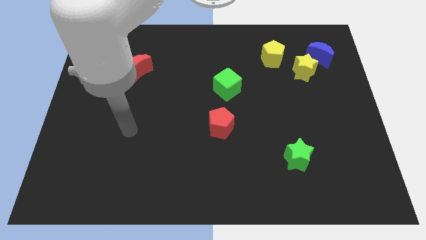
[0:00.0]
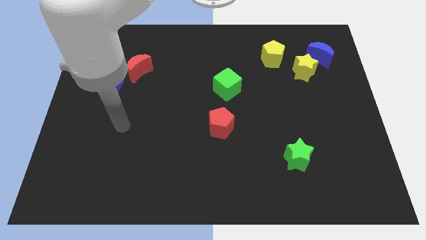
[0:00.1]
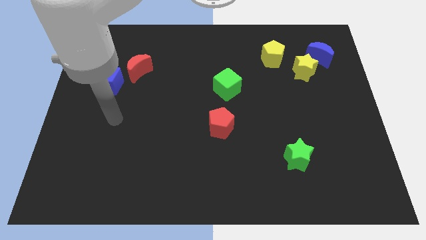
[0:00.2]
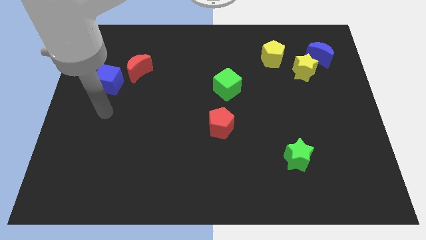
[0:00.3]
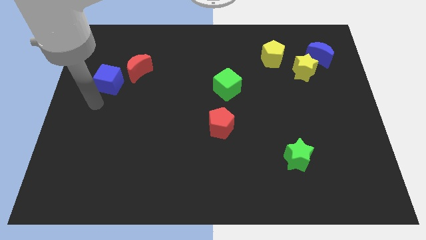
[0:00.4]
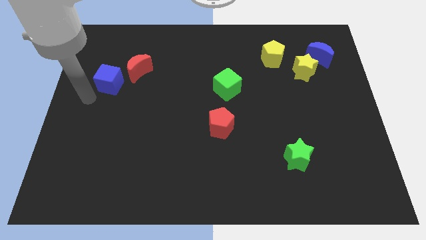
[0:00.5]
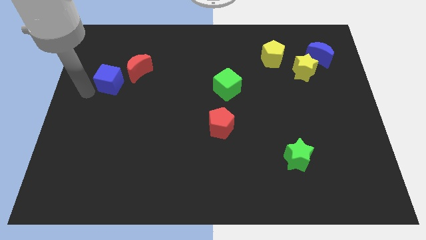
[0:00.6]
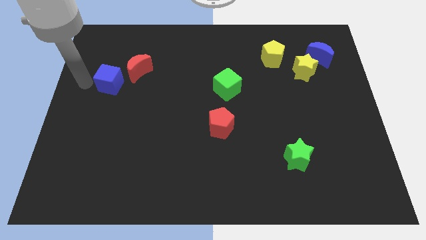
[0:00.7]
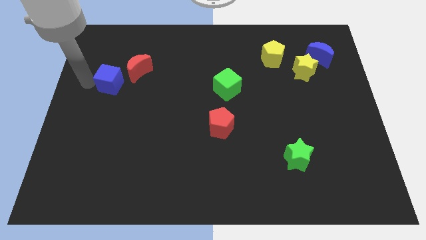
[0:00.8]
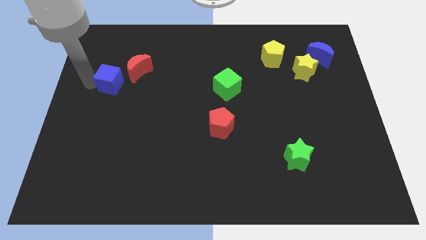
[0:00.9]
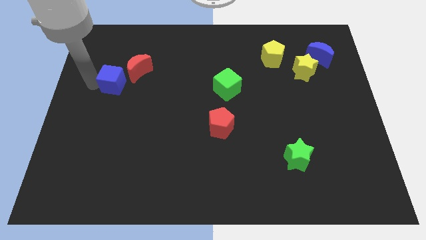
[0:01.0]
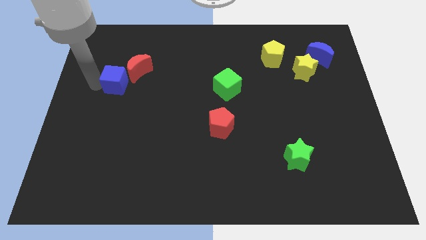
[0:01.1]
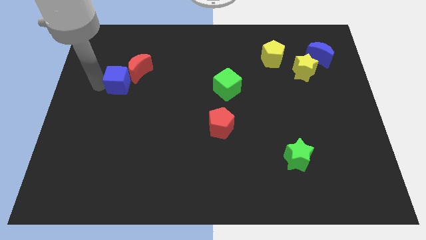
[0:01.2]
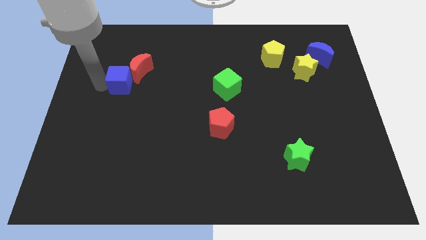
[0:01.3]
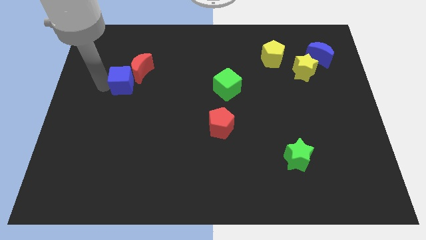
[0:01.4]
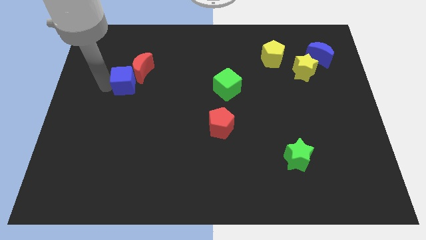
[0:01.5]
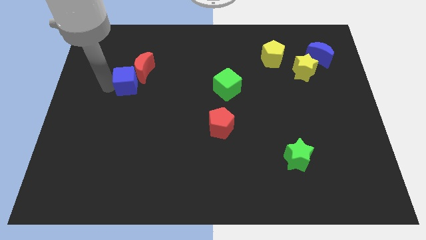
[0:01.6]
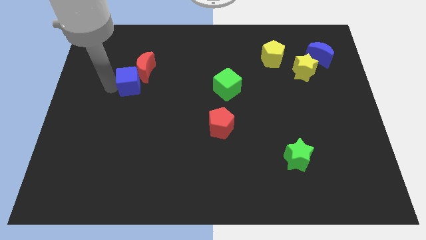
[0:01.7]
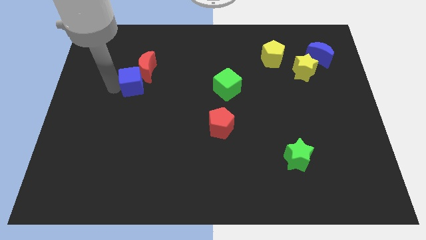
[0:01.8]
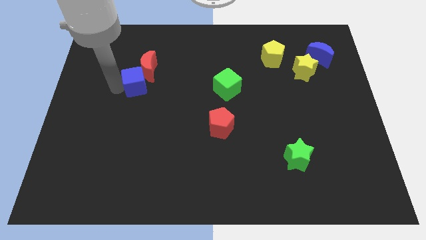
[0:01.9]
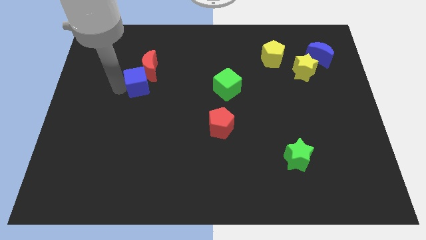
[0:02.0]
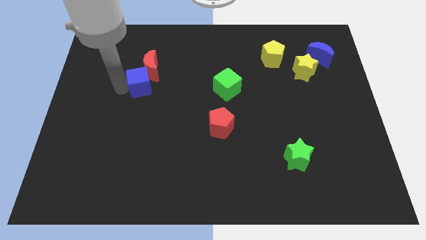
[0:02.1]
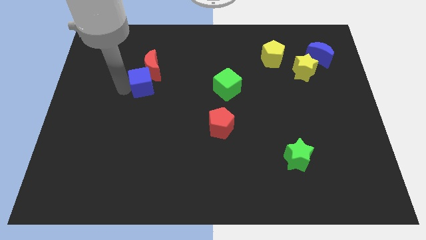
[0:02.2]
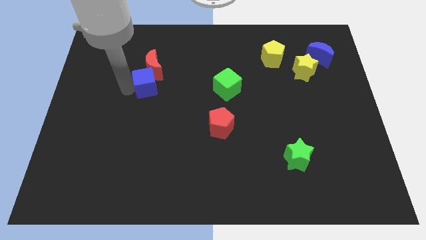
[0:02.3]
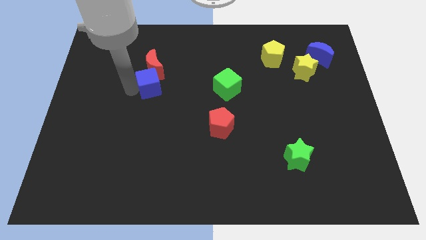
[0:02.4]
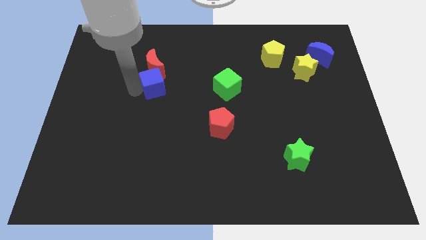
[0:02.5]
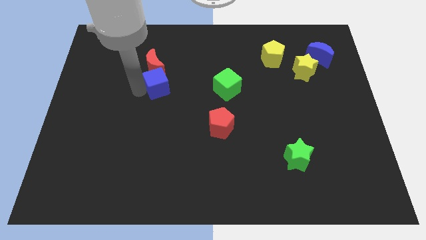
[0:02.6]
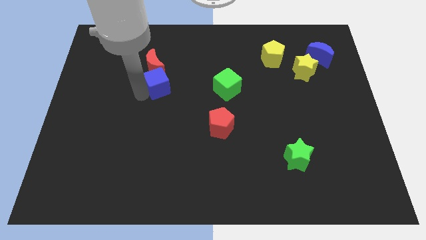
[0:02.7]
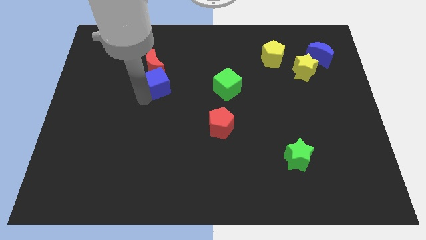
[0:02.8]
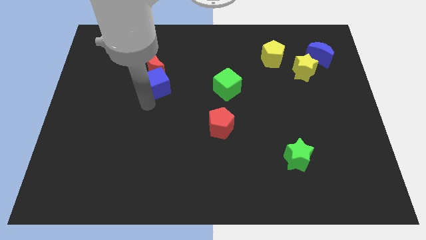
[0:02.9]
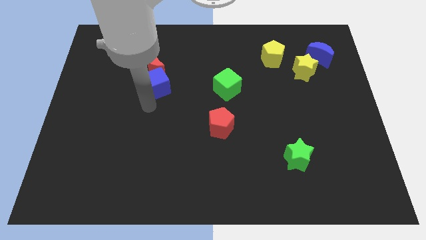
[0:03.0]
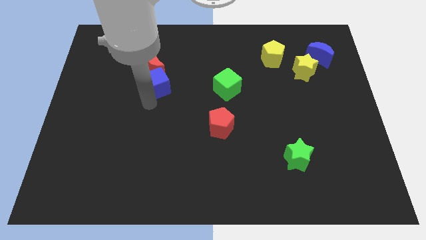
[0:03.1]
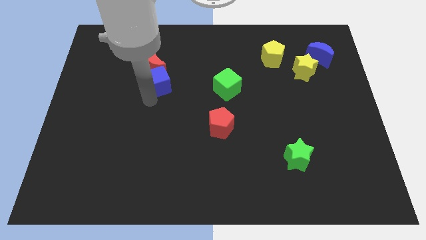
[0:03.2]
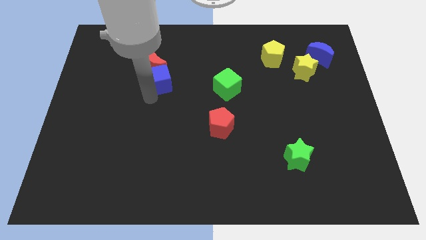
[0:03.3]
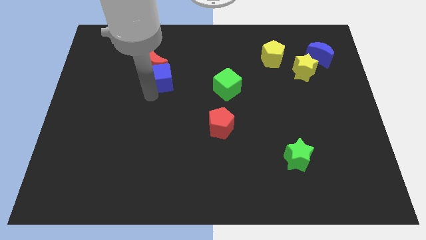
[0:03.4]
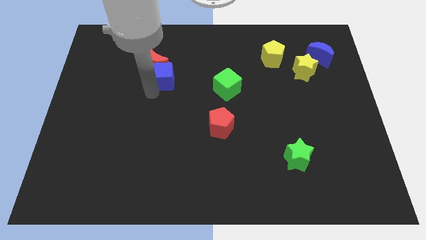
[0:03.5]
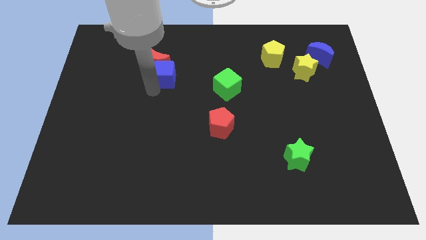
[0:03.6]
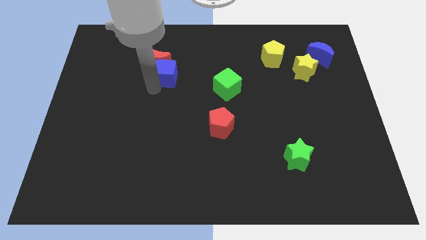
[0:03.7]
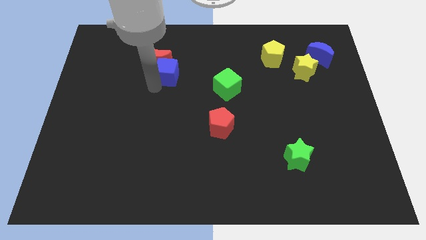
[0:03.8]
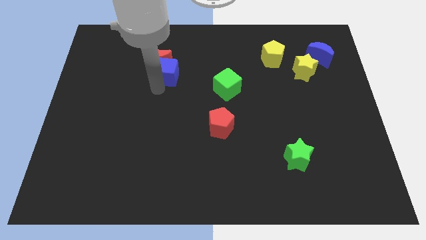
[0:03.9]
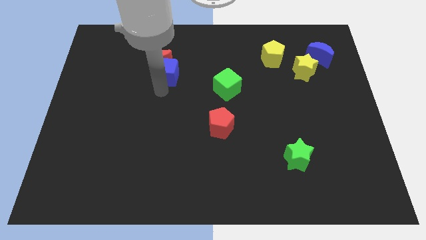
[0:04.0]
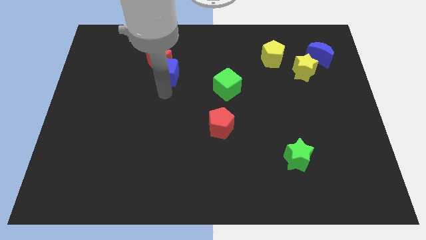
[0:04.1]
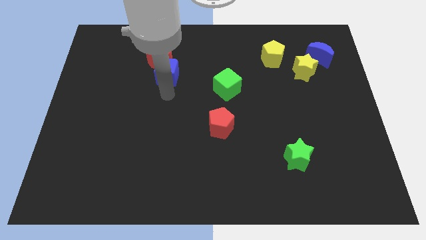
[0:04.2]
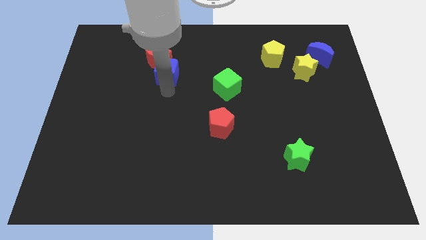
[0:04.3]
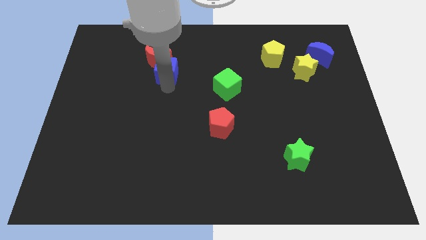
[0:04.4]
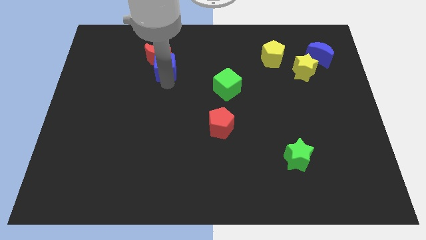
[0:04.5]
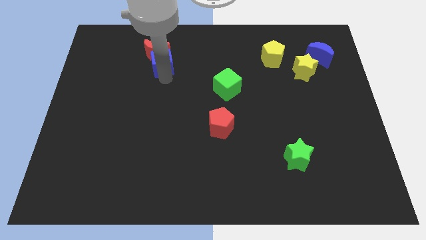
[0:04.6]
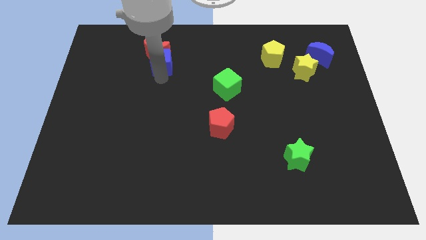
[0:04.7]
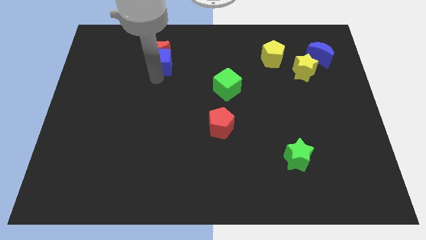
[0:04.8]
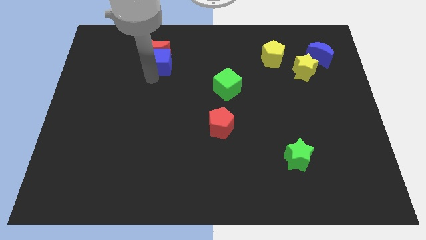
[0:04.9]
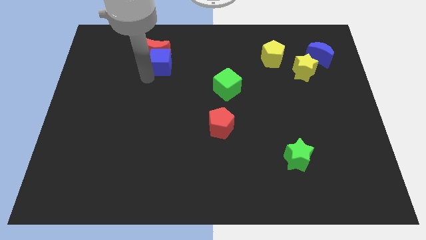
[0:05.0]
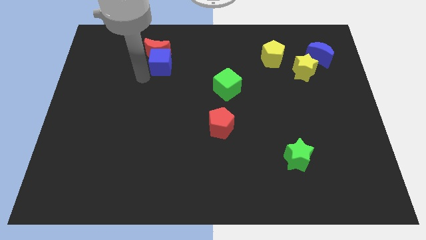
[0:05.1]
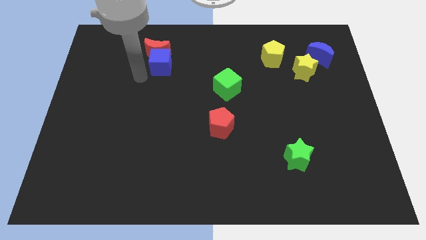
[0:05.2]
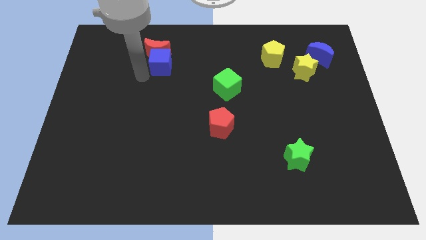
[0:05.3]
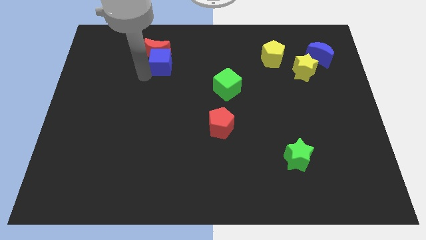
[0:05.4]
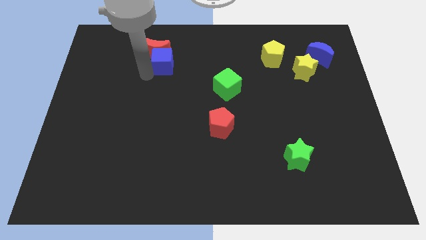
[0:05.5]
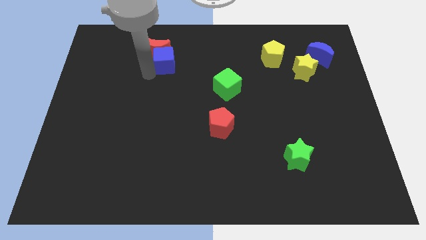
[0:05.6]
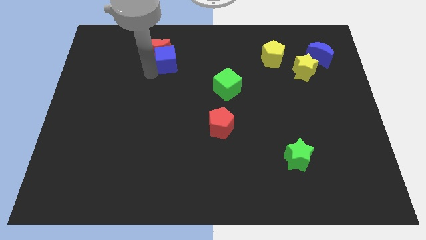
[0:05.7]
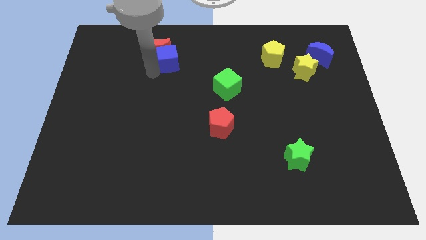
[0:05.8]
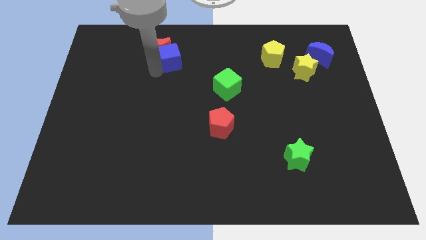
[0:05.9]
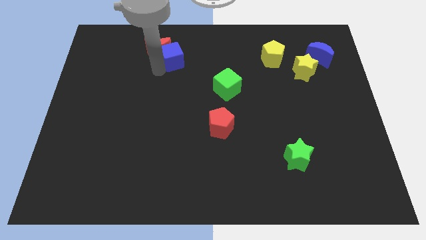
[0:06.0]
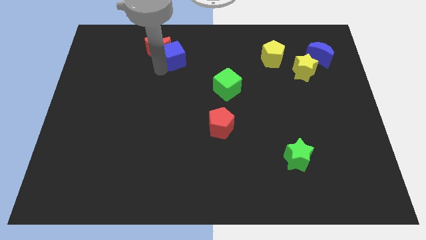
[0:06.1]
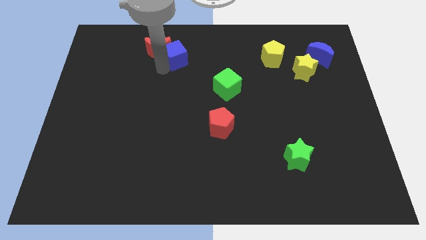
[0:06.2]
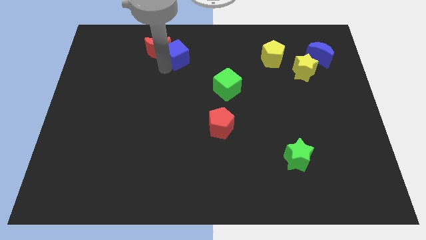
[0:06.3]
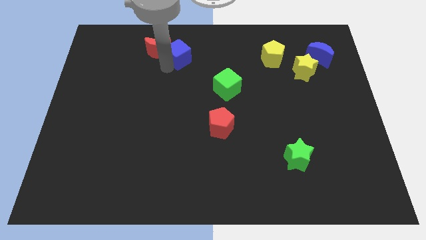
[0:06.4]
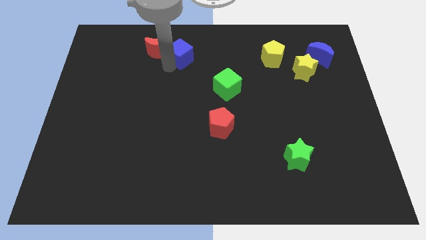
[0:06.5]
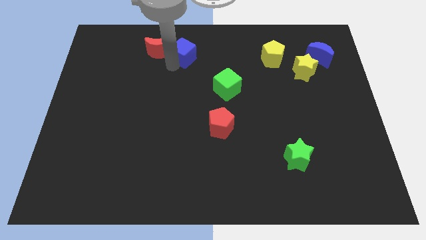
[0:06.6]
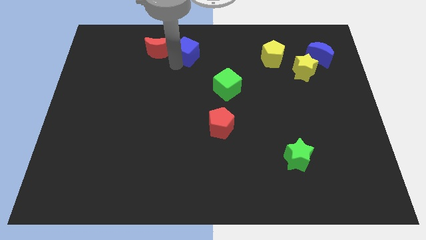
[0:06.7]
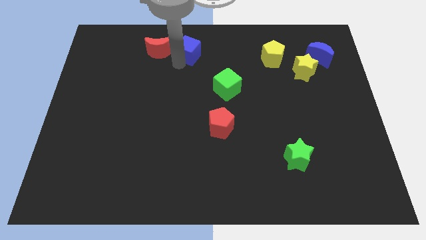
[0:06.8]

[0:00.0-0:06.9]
move the blue cube to the top
